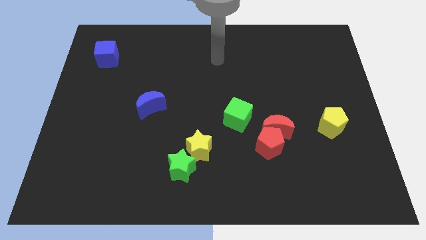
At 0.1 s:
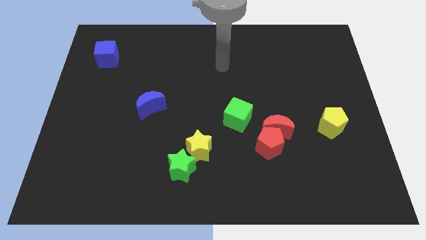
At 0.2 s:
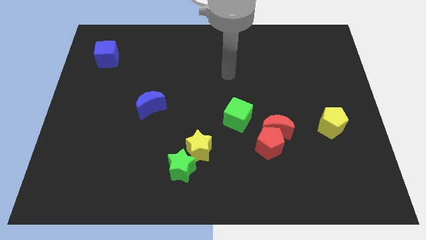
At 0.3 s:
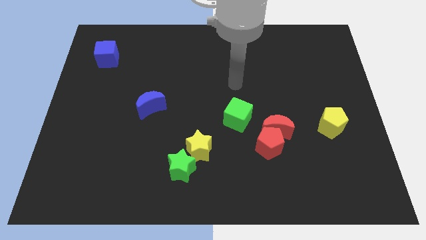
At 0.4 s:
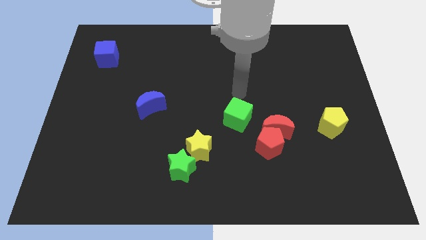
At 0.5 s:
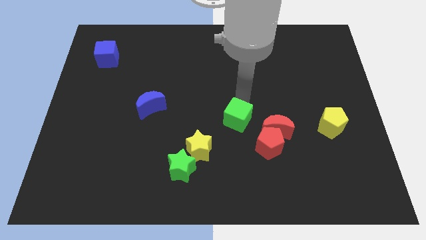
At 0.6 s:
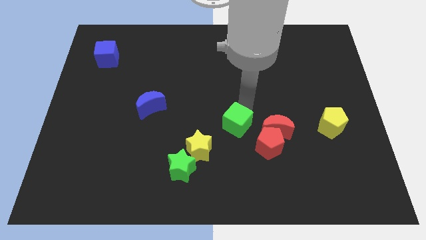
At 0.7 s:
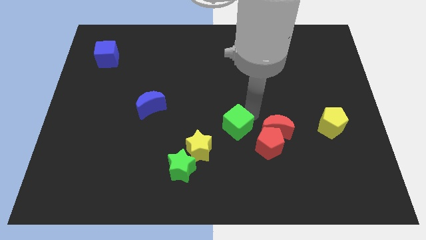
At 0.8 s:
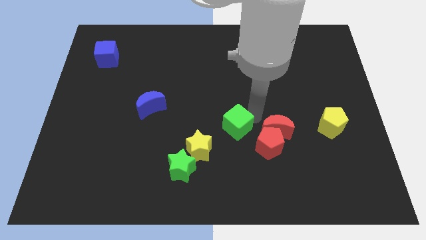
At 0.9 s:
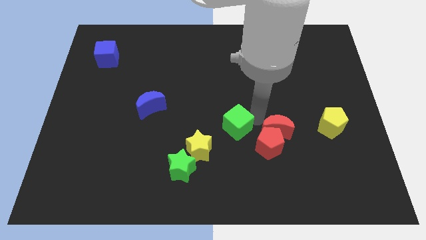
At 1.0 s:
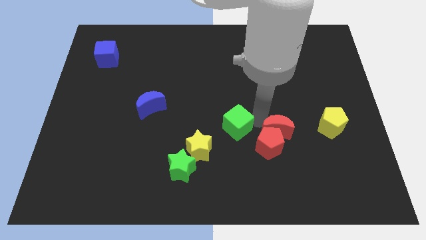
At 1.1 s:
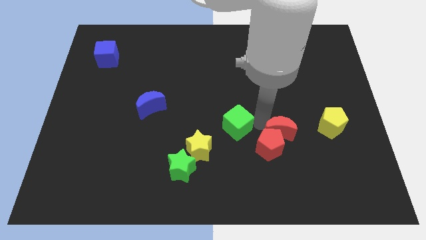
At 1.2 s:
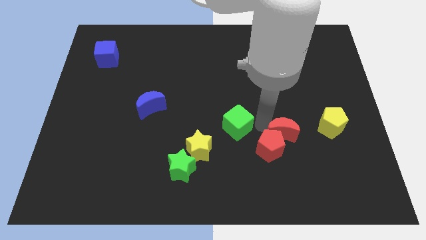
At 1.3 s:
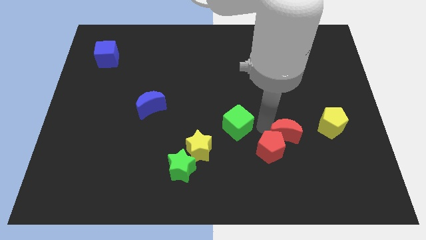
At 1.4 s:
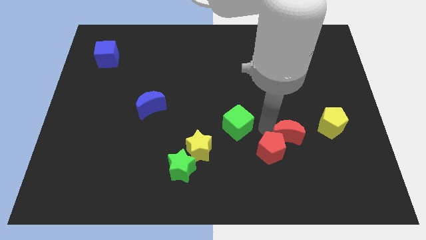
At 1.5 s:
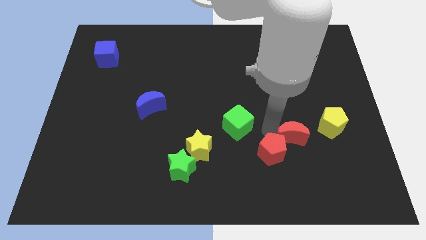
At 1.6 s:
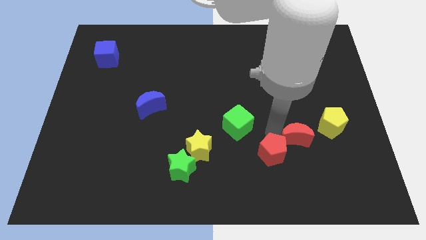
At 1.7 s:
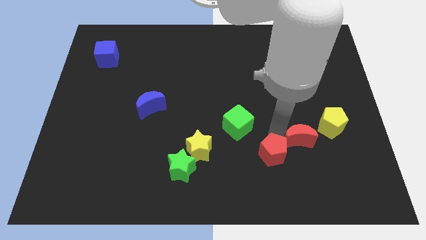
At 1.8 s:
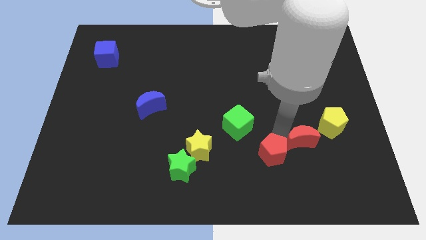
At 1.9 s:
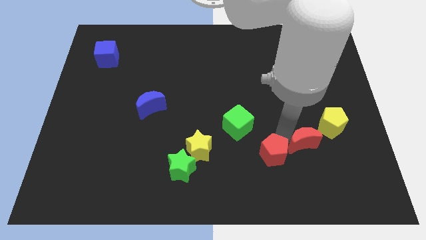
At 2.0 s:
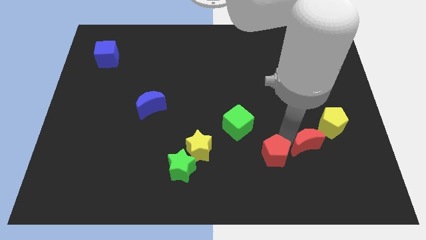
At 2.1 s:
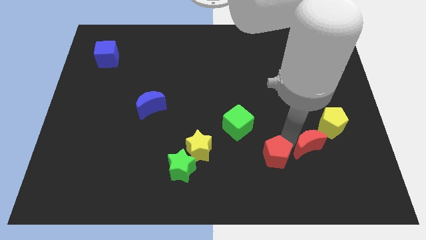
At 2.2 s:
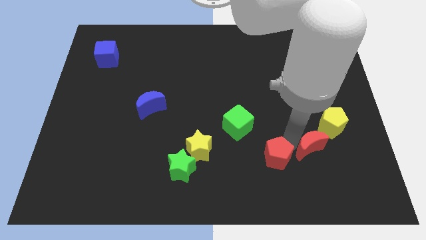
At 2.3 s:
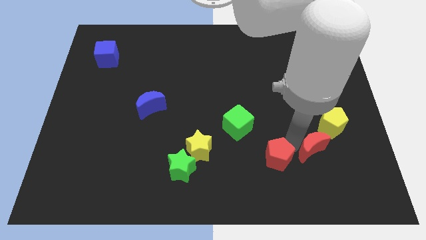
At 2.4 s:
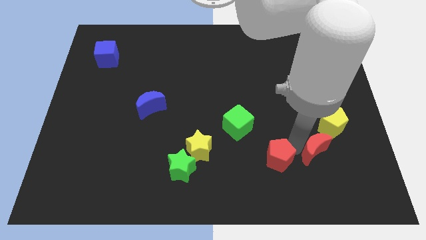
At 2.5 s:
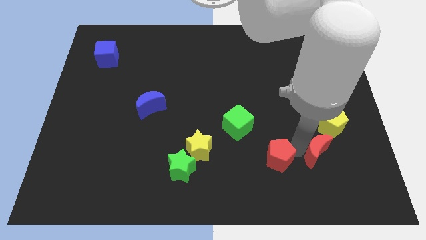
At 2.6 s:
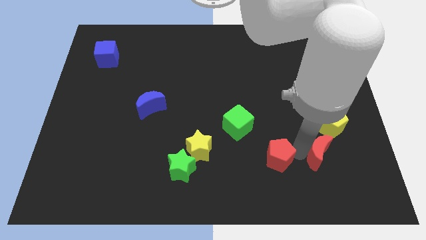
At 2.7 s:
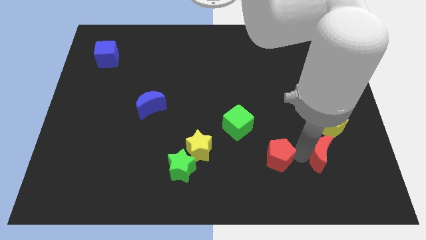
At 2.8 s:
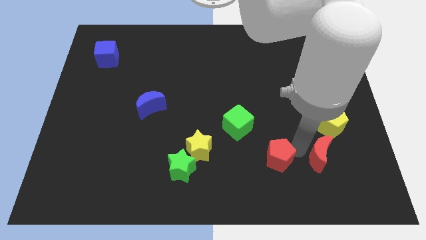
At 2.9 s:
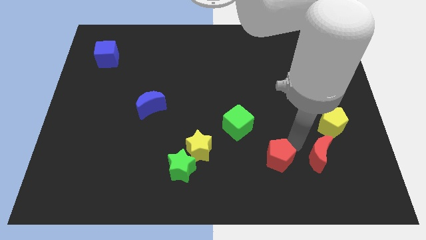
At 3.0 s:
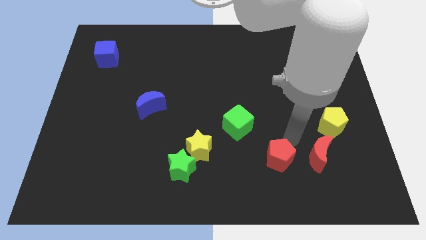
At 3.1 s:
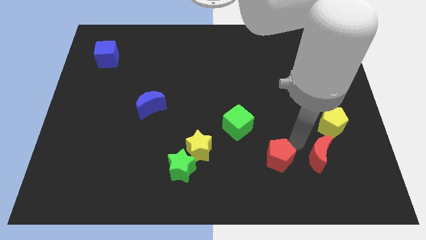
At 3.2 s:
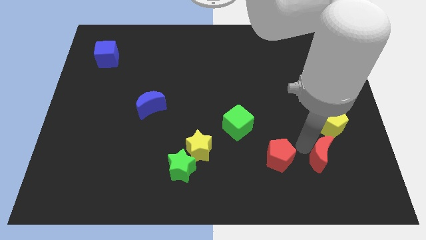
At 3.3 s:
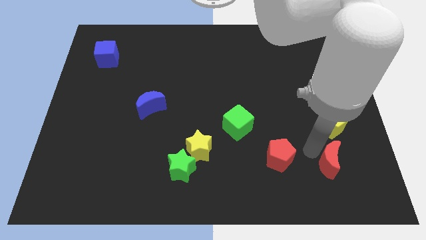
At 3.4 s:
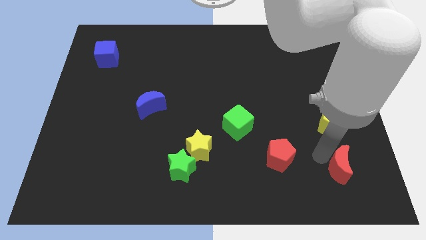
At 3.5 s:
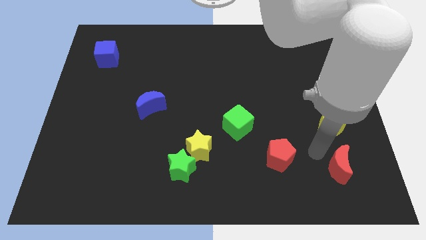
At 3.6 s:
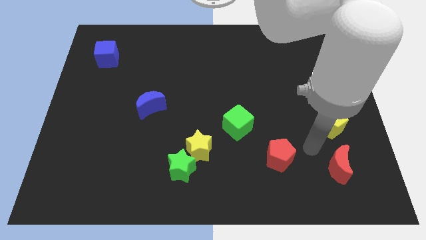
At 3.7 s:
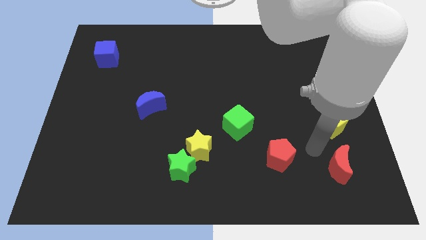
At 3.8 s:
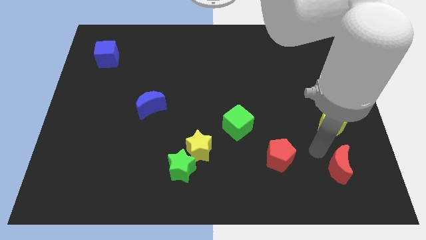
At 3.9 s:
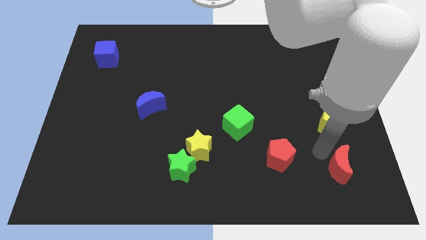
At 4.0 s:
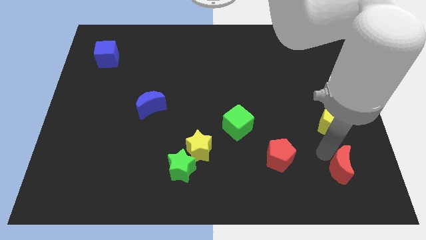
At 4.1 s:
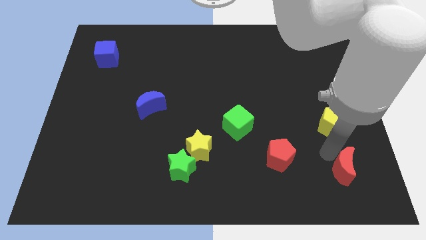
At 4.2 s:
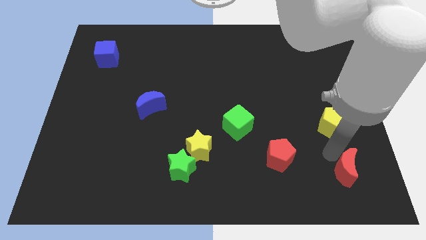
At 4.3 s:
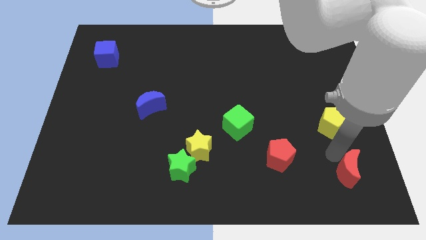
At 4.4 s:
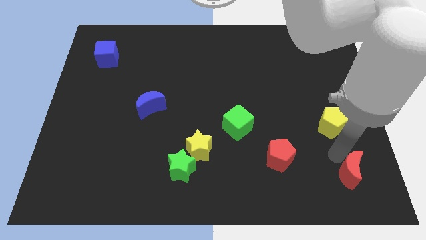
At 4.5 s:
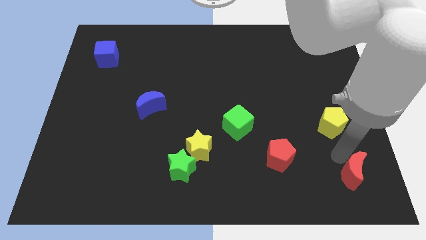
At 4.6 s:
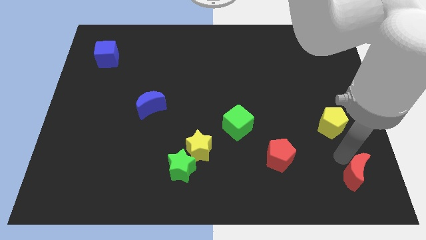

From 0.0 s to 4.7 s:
slide the red moon to the bottom right

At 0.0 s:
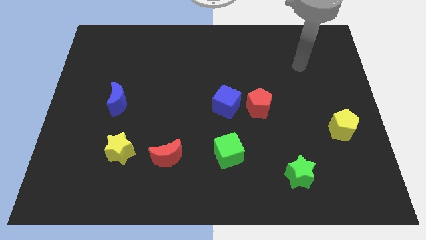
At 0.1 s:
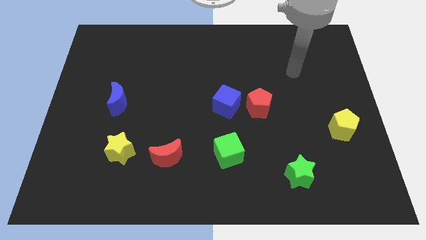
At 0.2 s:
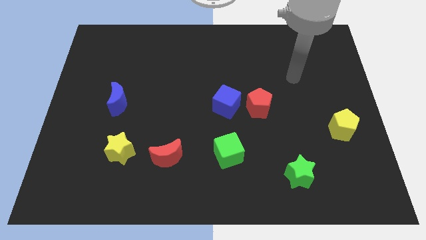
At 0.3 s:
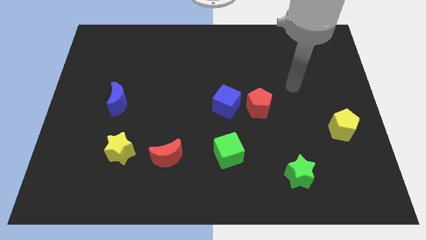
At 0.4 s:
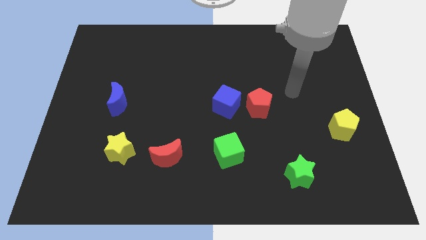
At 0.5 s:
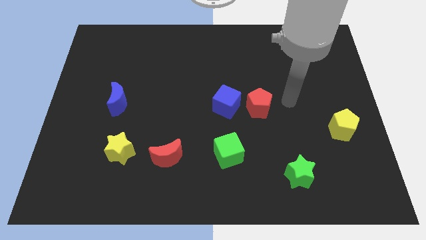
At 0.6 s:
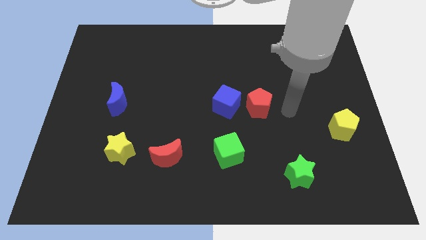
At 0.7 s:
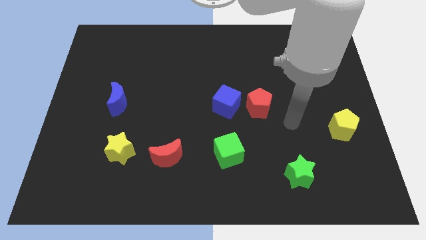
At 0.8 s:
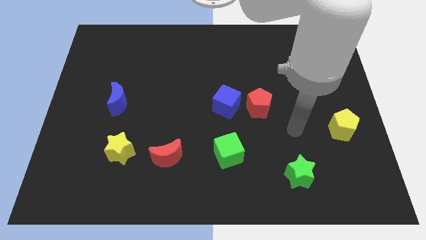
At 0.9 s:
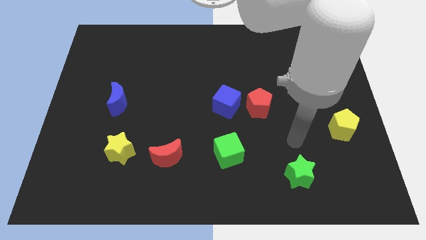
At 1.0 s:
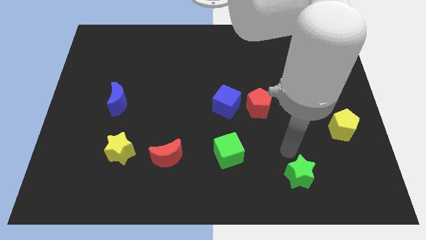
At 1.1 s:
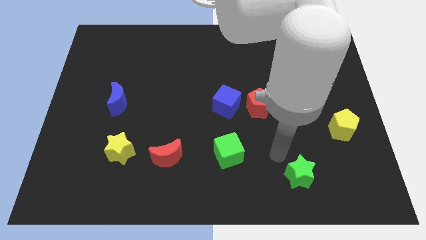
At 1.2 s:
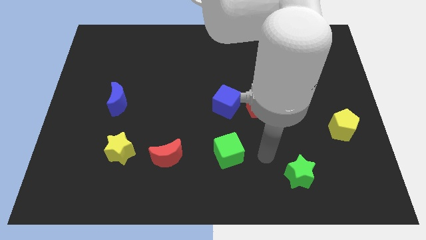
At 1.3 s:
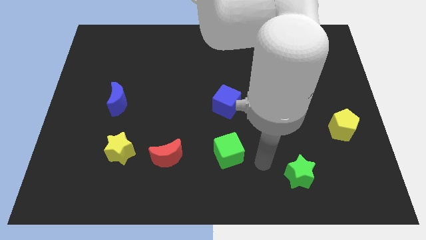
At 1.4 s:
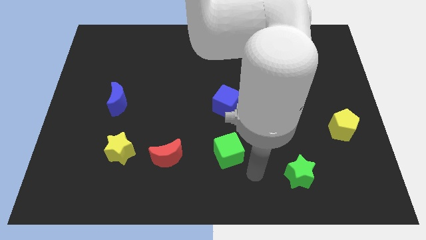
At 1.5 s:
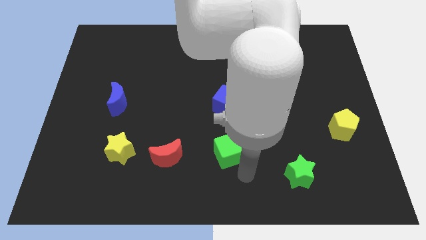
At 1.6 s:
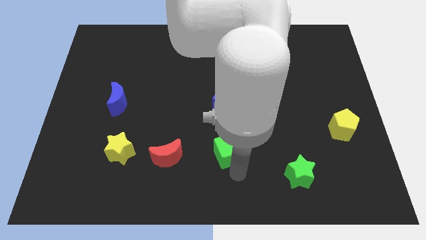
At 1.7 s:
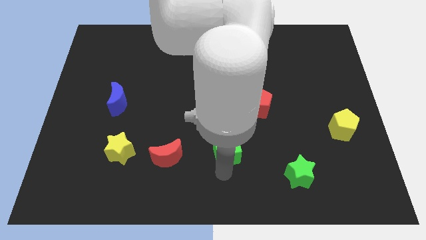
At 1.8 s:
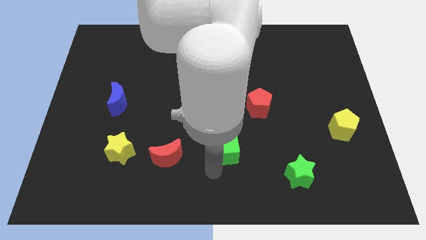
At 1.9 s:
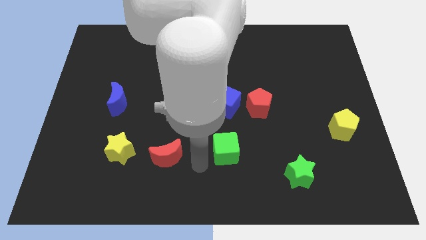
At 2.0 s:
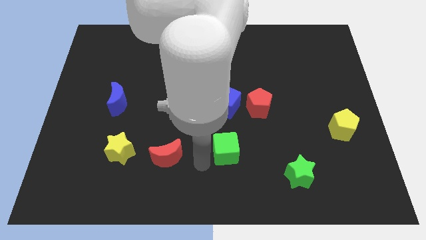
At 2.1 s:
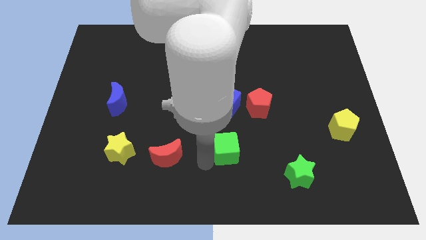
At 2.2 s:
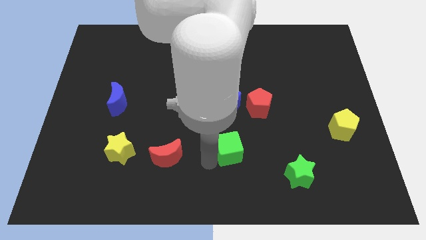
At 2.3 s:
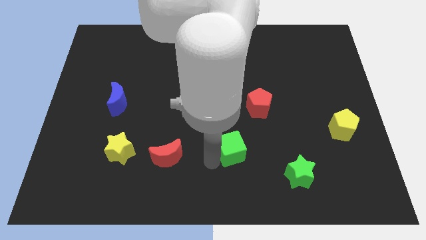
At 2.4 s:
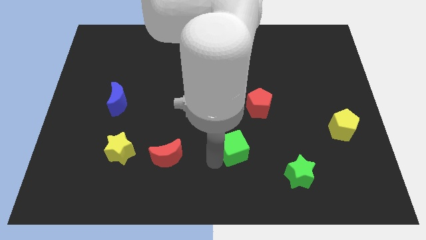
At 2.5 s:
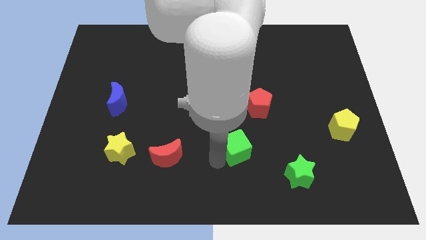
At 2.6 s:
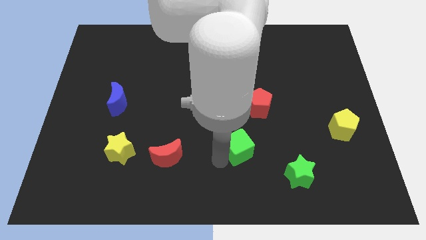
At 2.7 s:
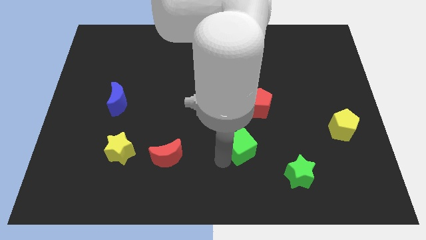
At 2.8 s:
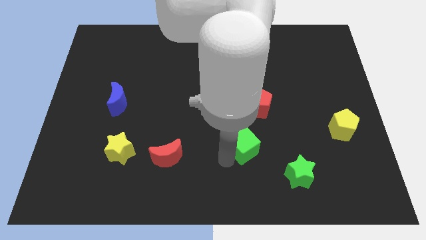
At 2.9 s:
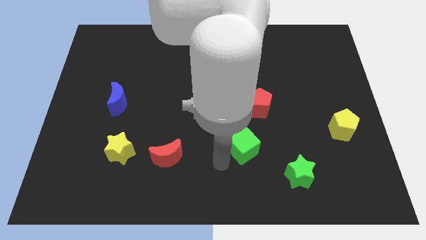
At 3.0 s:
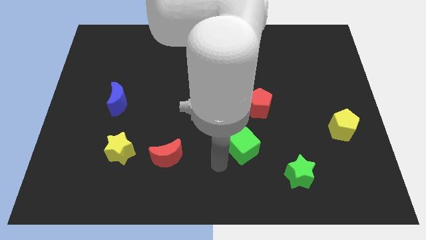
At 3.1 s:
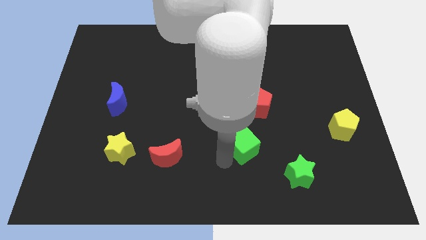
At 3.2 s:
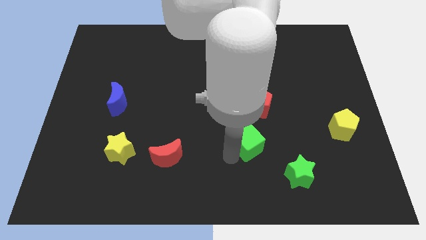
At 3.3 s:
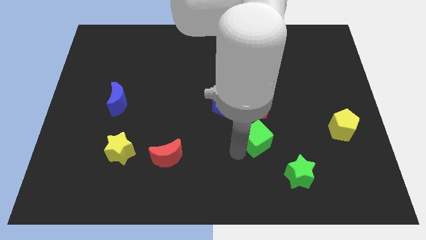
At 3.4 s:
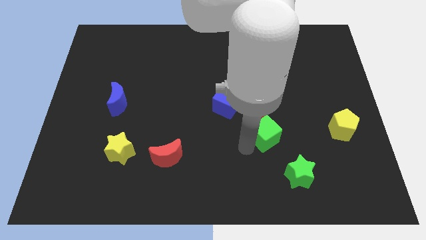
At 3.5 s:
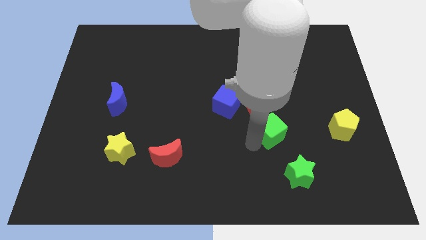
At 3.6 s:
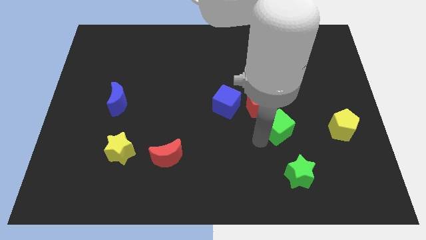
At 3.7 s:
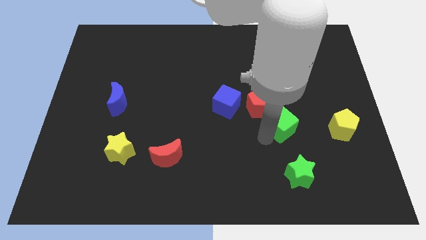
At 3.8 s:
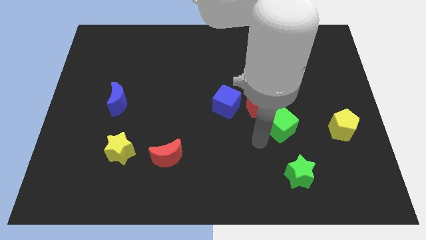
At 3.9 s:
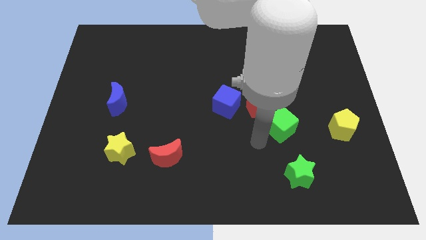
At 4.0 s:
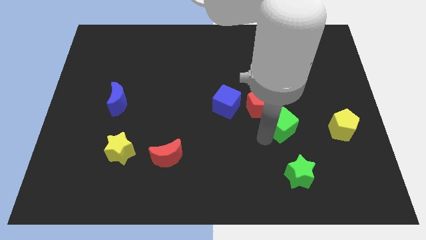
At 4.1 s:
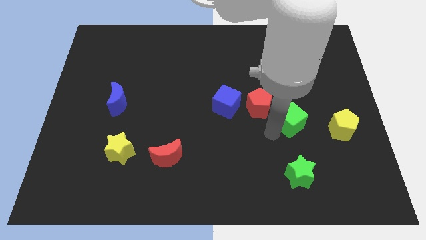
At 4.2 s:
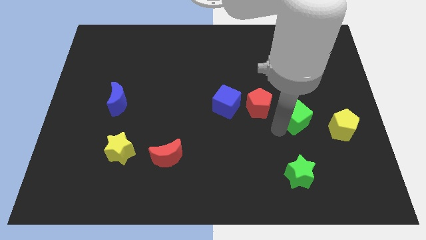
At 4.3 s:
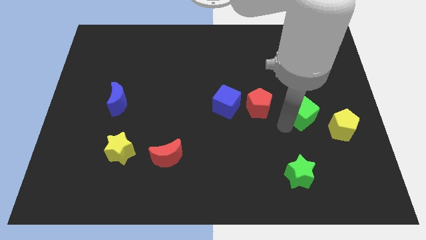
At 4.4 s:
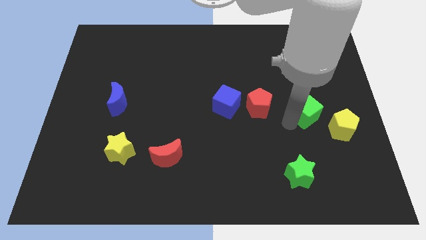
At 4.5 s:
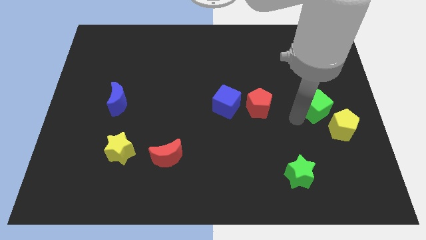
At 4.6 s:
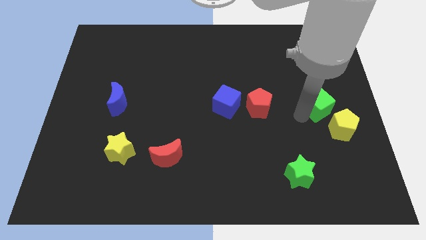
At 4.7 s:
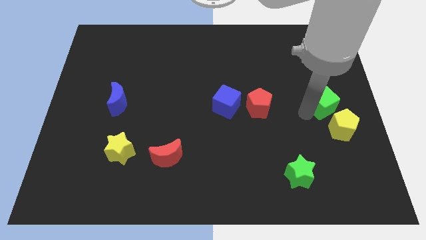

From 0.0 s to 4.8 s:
put the green cube to the right side of the board
